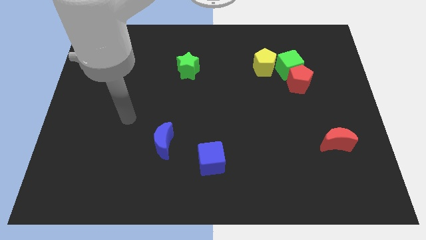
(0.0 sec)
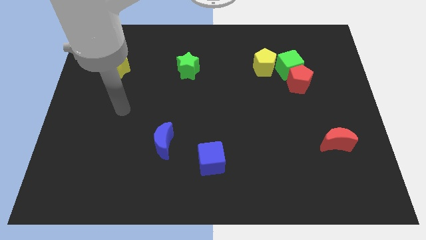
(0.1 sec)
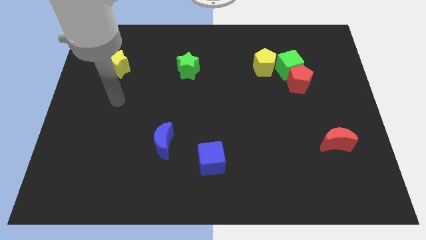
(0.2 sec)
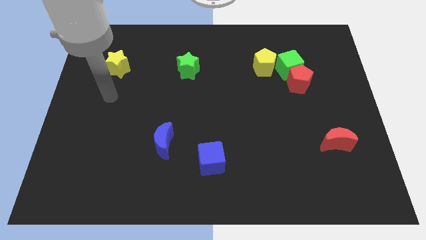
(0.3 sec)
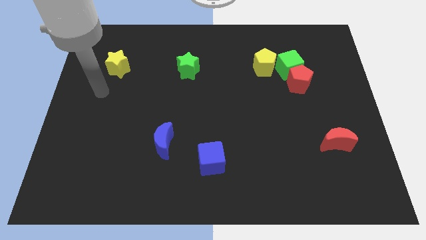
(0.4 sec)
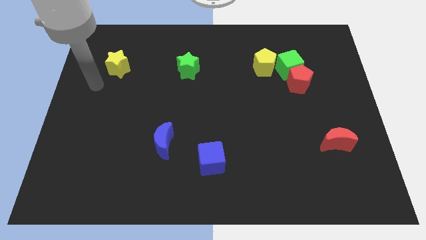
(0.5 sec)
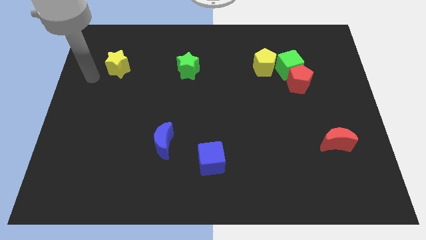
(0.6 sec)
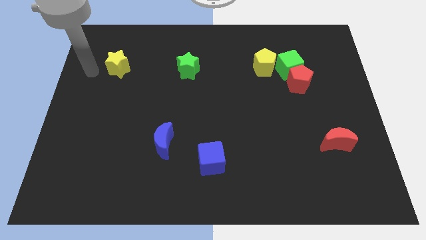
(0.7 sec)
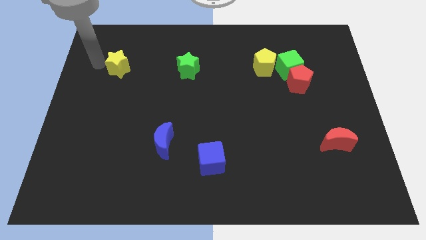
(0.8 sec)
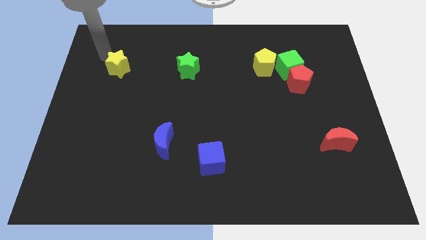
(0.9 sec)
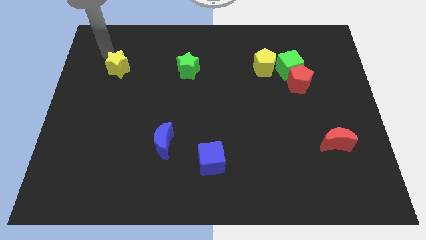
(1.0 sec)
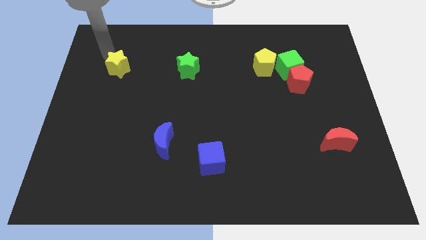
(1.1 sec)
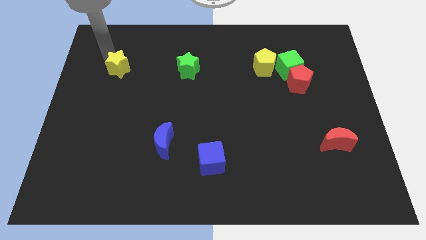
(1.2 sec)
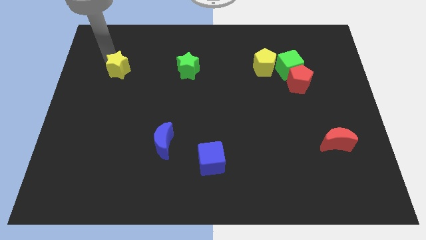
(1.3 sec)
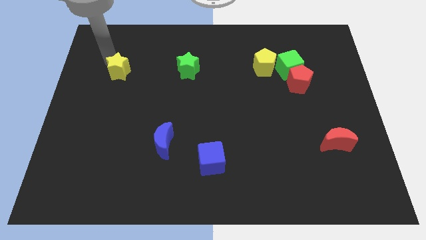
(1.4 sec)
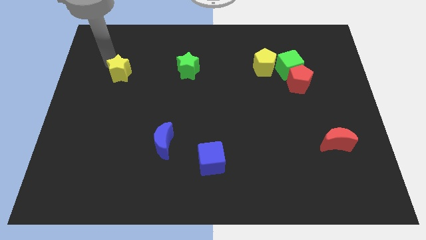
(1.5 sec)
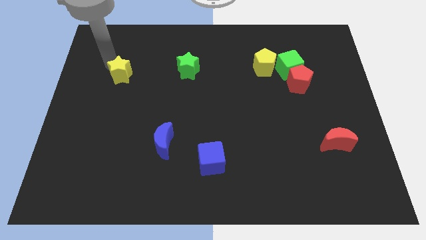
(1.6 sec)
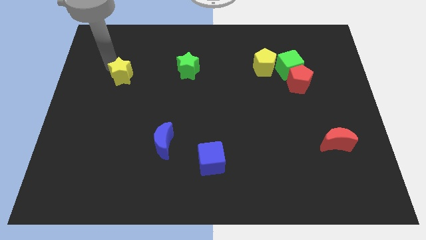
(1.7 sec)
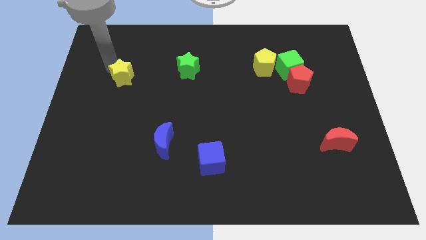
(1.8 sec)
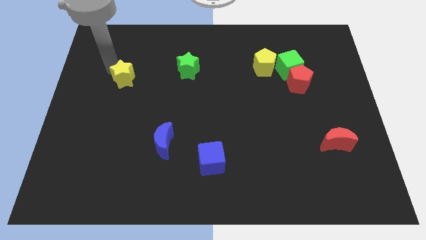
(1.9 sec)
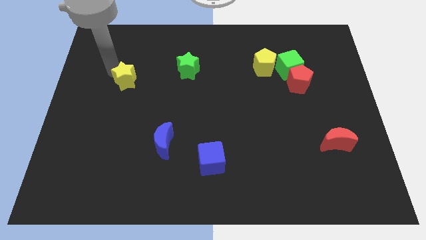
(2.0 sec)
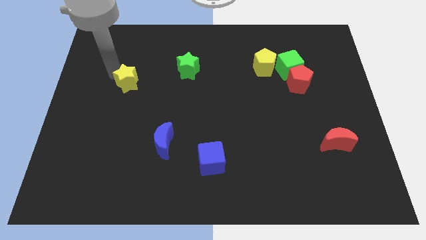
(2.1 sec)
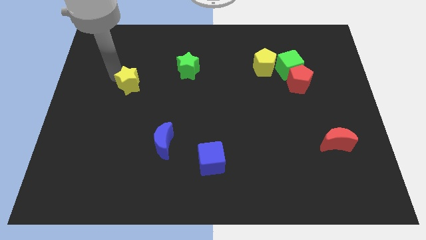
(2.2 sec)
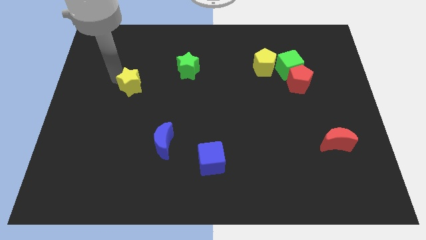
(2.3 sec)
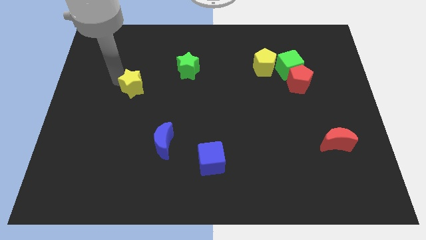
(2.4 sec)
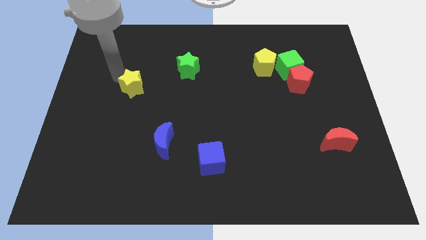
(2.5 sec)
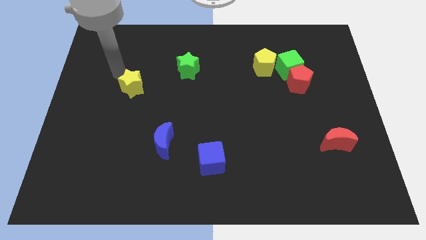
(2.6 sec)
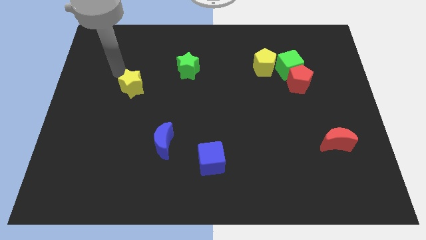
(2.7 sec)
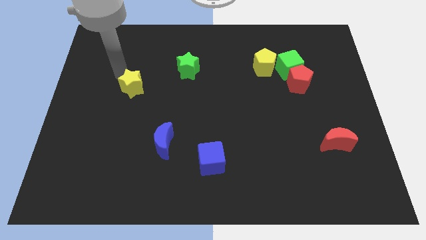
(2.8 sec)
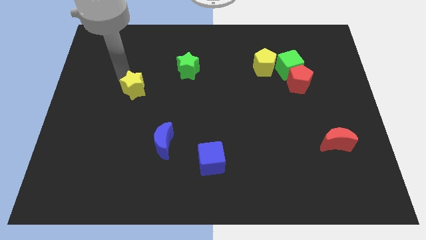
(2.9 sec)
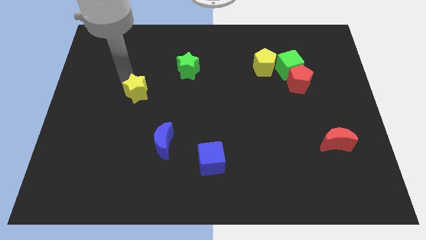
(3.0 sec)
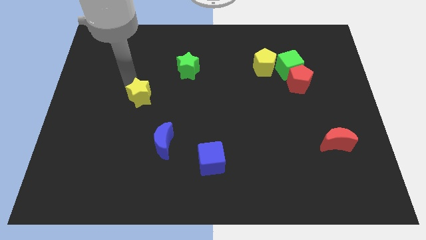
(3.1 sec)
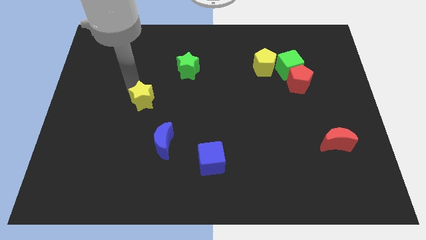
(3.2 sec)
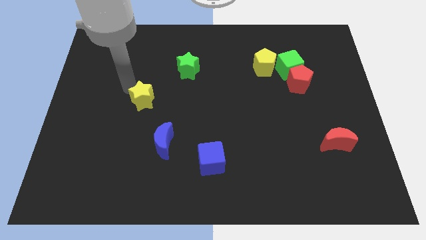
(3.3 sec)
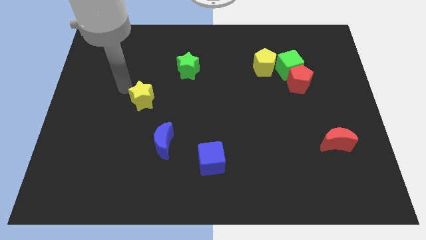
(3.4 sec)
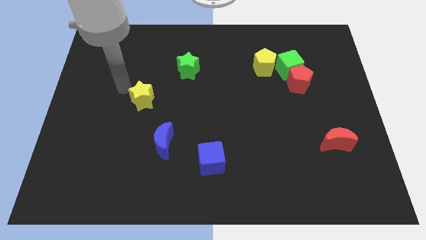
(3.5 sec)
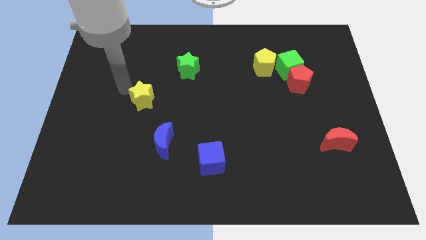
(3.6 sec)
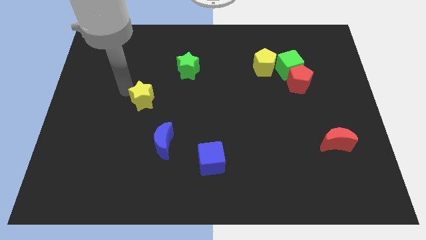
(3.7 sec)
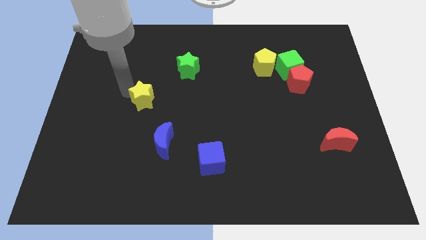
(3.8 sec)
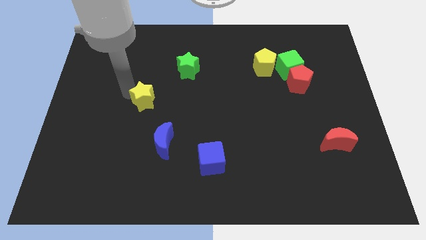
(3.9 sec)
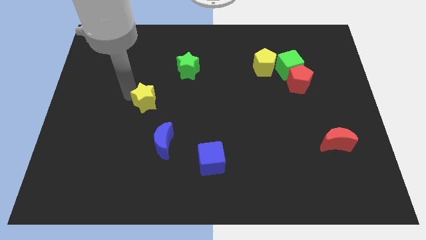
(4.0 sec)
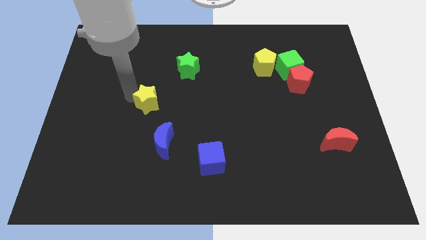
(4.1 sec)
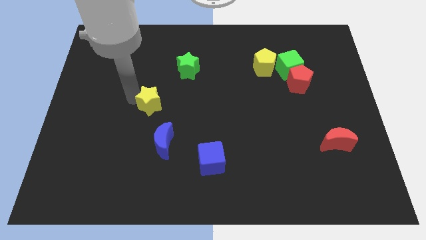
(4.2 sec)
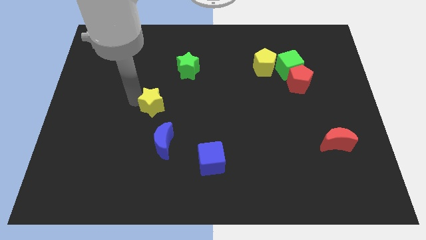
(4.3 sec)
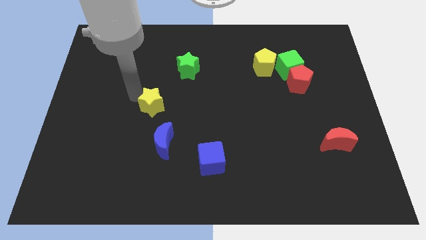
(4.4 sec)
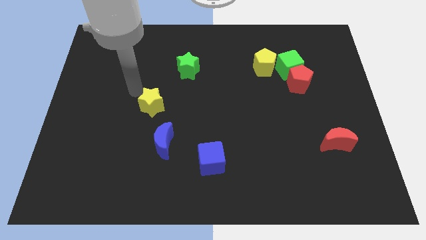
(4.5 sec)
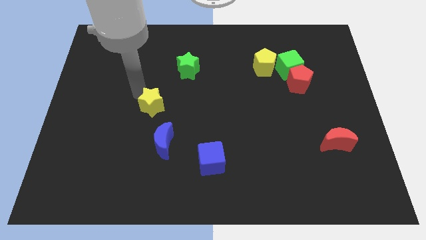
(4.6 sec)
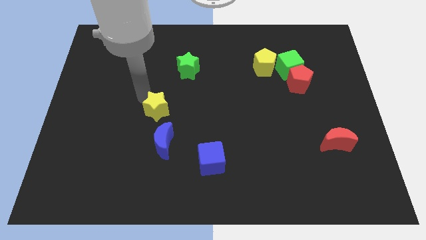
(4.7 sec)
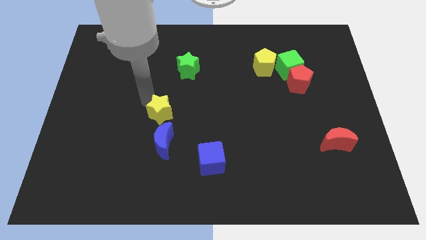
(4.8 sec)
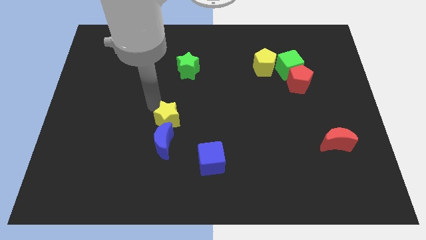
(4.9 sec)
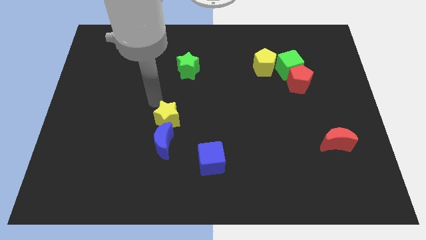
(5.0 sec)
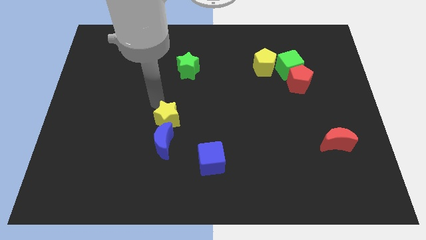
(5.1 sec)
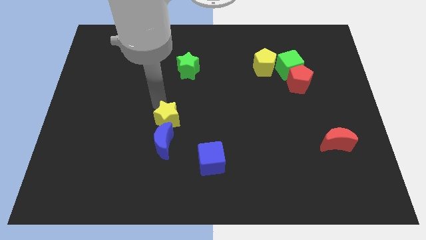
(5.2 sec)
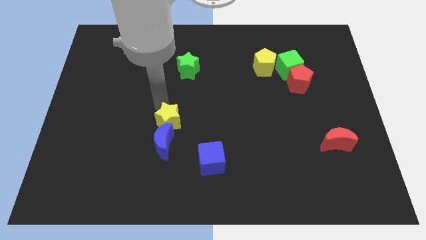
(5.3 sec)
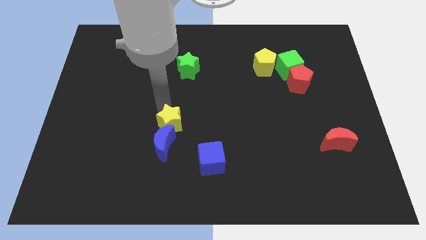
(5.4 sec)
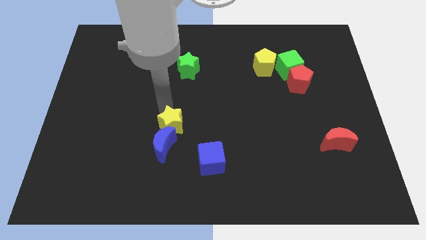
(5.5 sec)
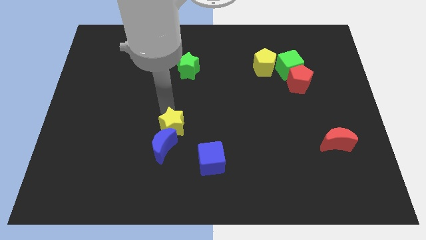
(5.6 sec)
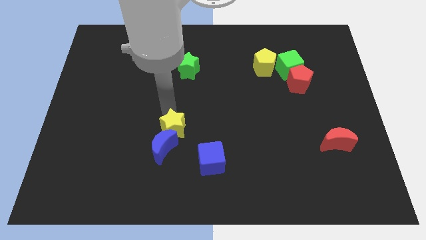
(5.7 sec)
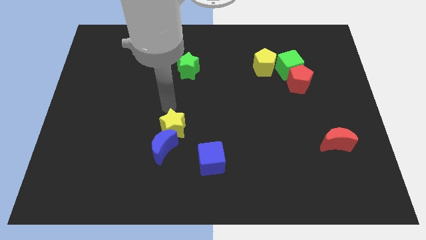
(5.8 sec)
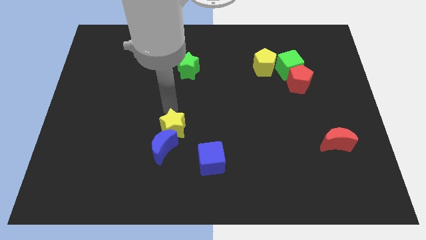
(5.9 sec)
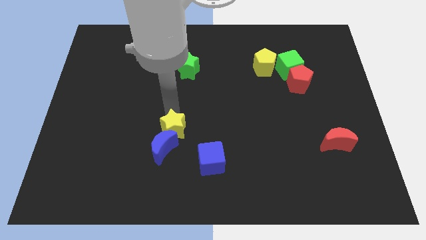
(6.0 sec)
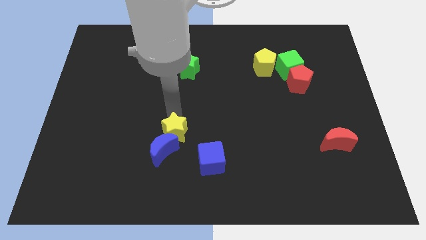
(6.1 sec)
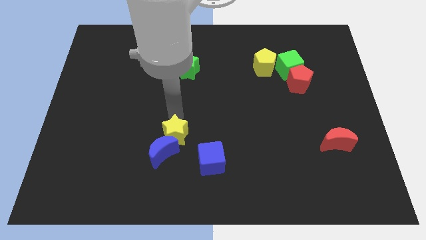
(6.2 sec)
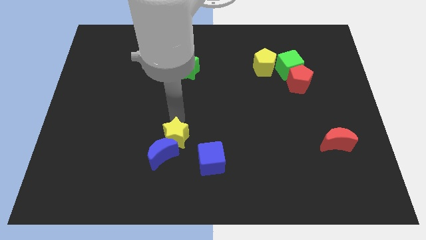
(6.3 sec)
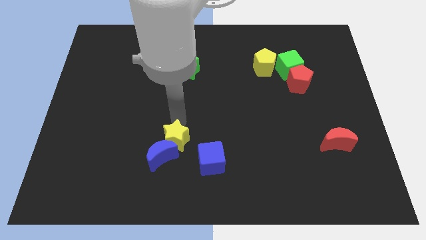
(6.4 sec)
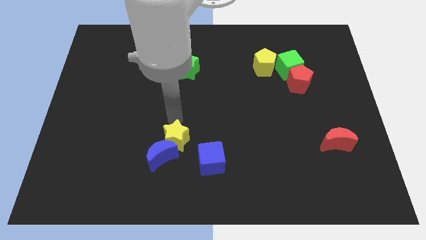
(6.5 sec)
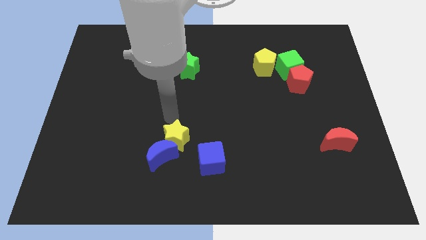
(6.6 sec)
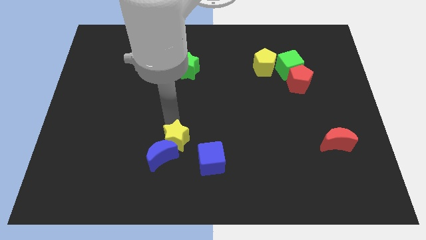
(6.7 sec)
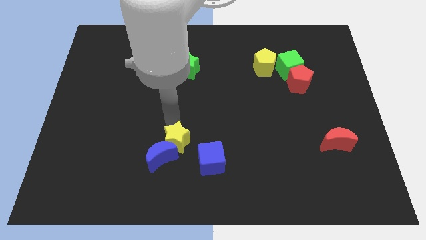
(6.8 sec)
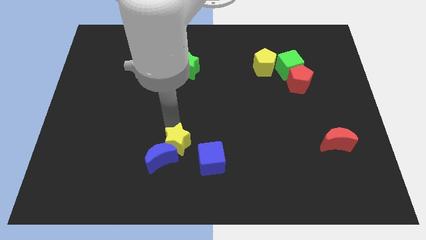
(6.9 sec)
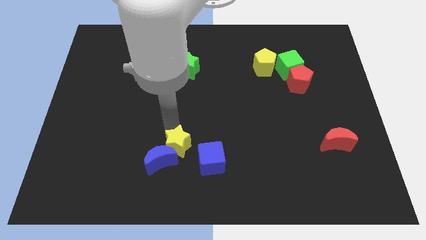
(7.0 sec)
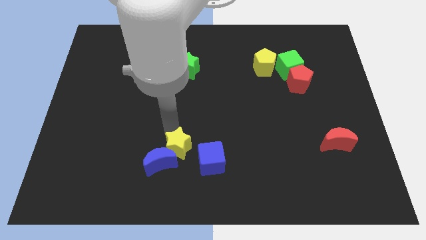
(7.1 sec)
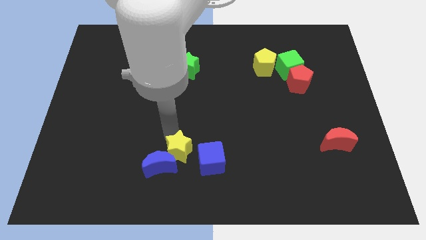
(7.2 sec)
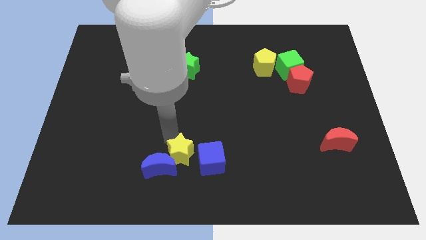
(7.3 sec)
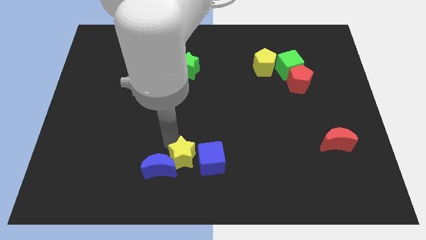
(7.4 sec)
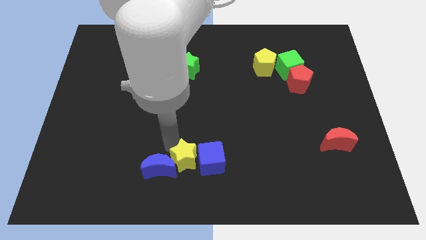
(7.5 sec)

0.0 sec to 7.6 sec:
put the yellow star to the bottom side
